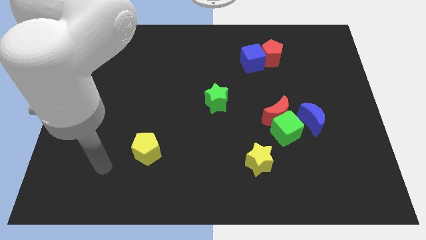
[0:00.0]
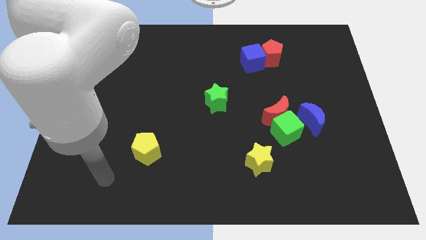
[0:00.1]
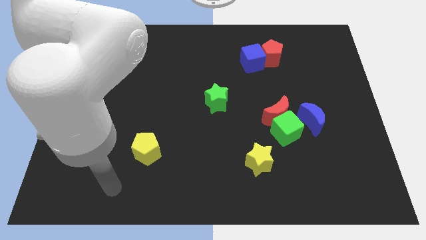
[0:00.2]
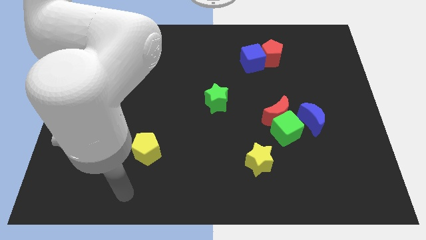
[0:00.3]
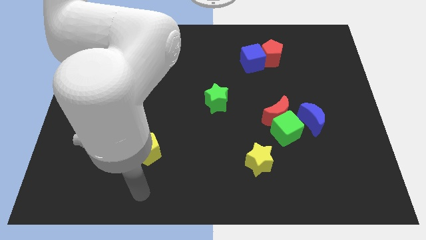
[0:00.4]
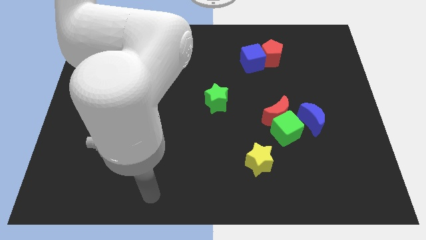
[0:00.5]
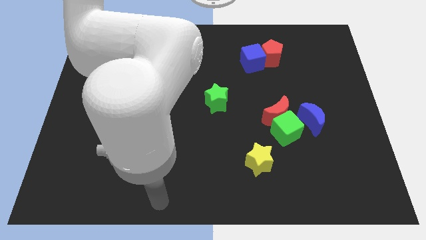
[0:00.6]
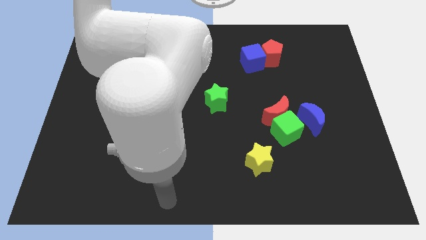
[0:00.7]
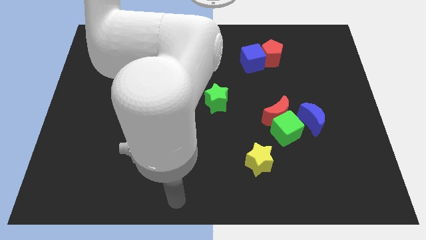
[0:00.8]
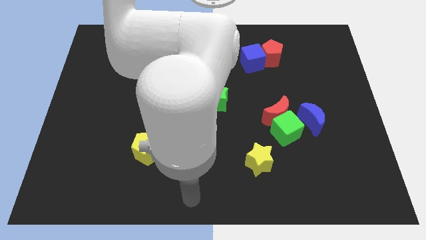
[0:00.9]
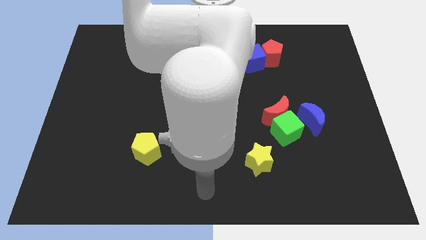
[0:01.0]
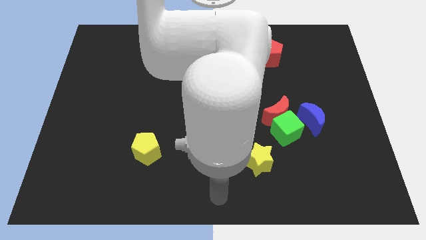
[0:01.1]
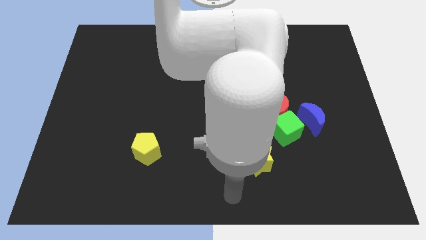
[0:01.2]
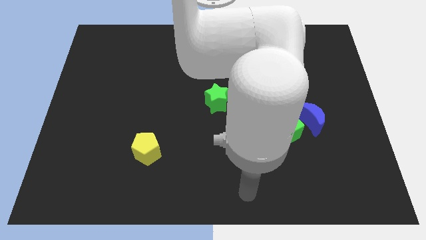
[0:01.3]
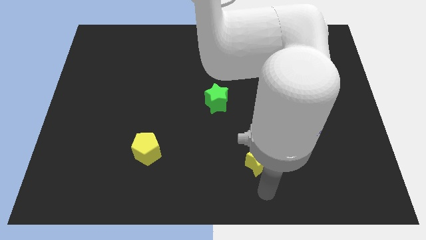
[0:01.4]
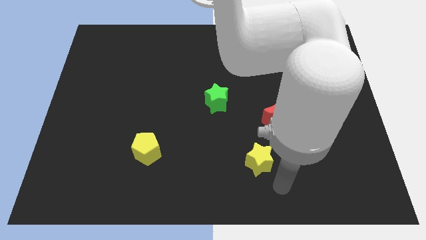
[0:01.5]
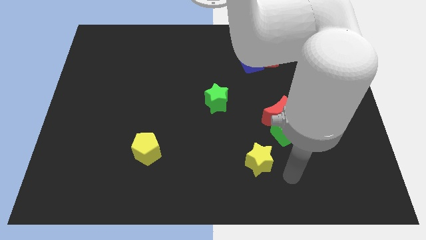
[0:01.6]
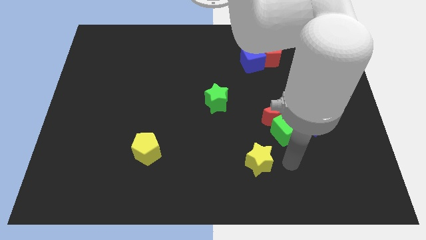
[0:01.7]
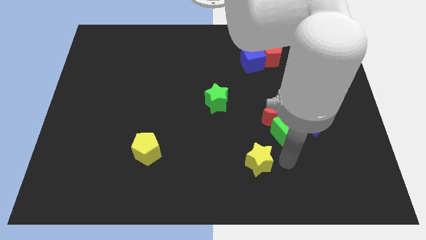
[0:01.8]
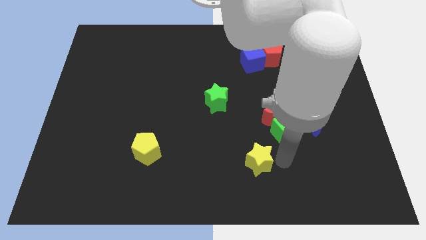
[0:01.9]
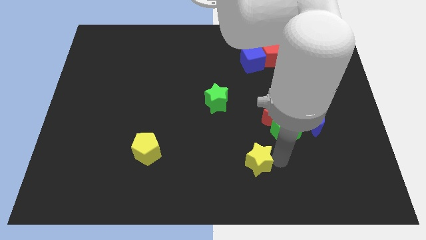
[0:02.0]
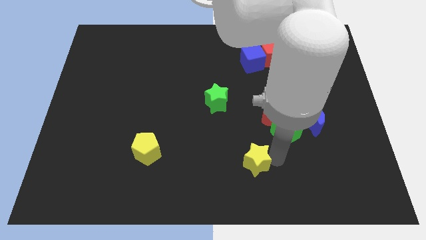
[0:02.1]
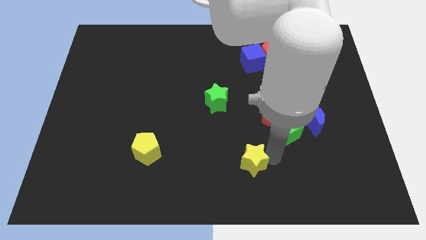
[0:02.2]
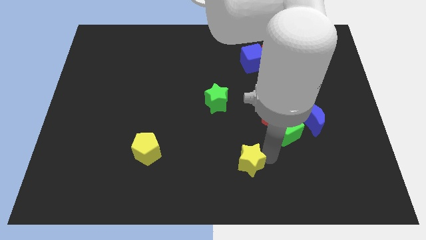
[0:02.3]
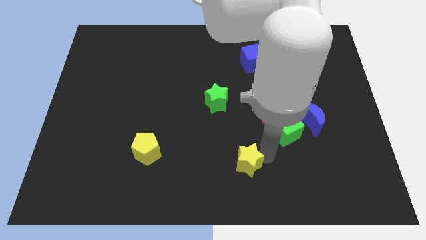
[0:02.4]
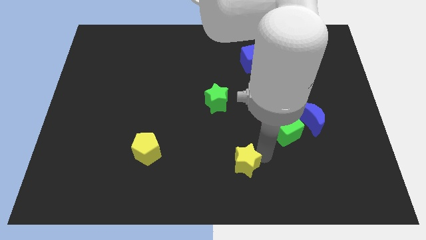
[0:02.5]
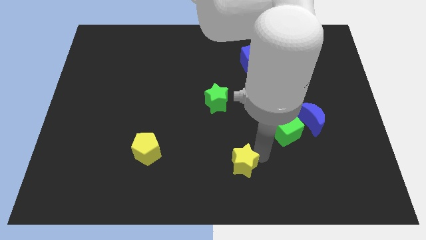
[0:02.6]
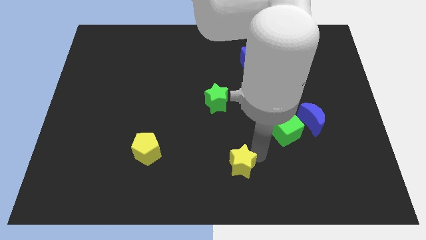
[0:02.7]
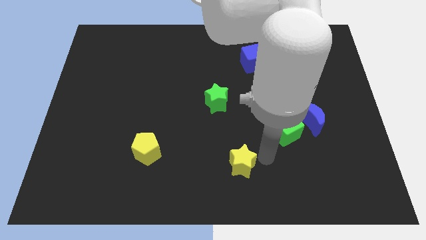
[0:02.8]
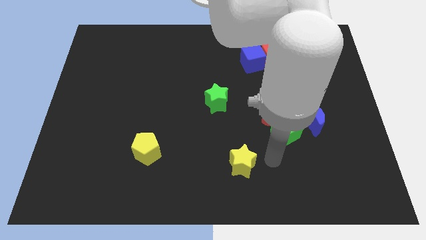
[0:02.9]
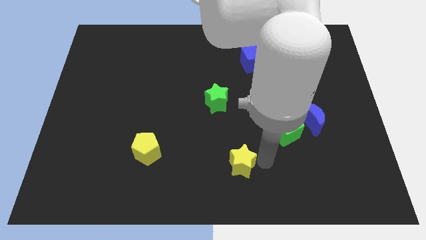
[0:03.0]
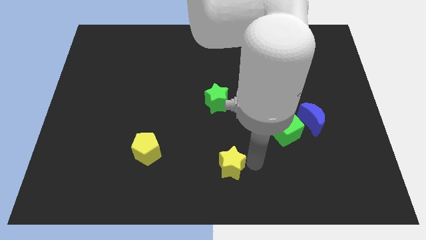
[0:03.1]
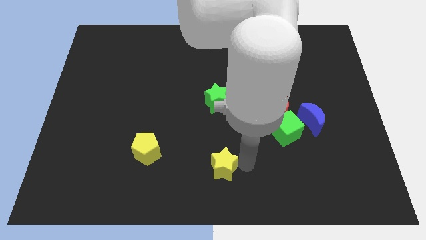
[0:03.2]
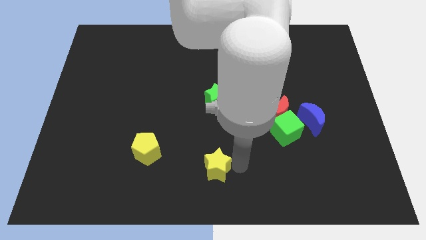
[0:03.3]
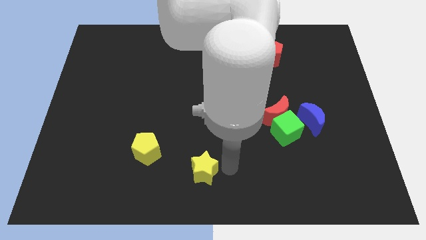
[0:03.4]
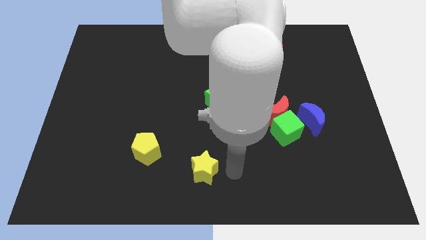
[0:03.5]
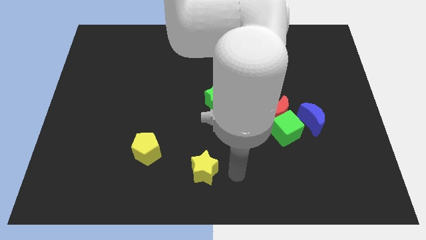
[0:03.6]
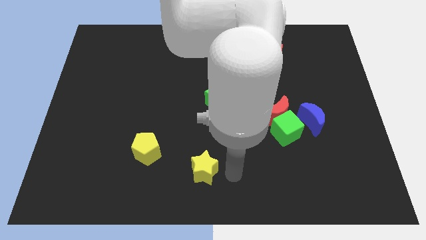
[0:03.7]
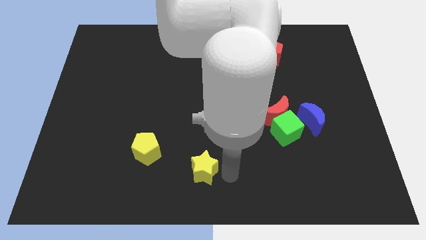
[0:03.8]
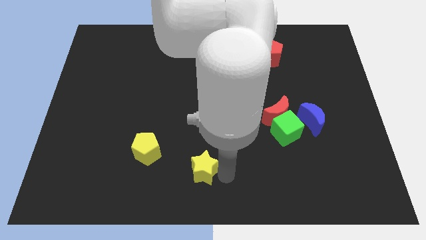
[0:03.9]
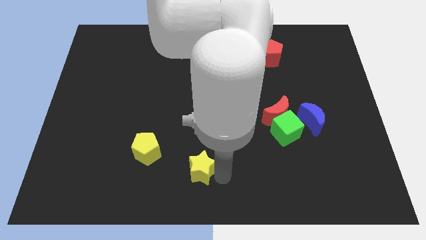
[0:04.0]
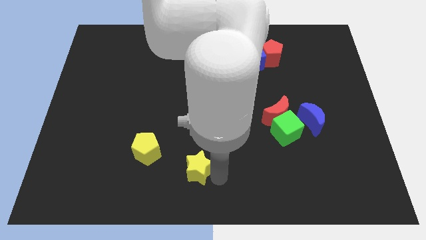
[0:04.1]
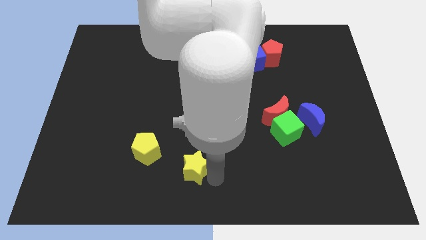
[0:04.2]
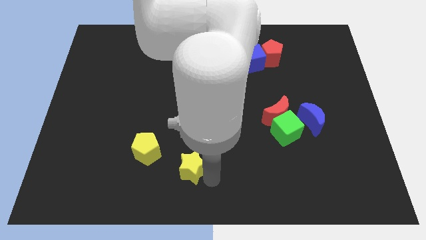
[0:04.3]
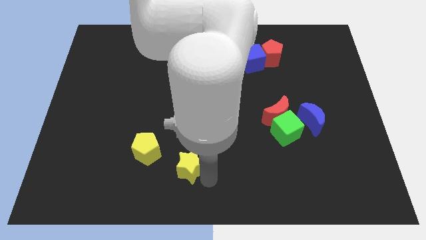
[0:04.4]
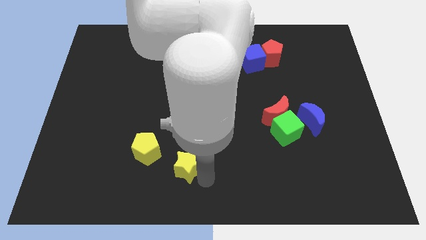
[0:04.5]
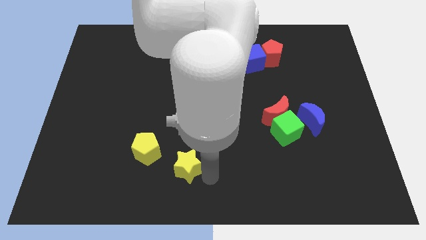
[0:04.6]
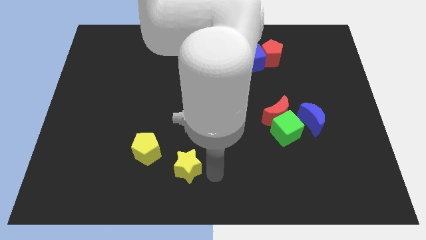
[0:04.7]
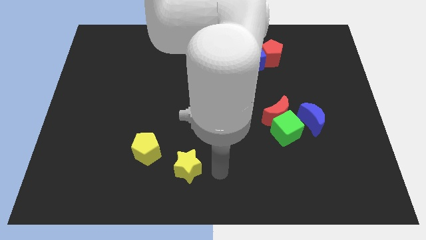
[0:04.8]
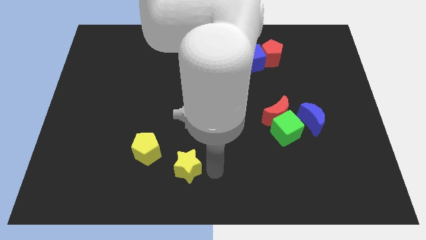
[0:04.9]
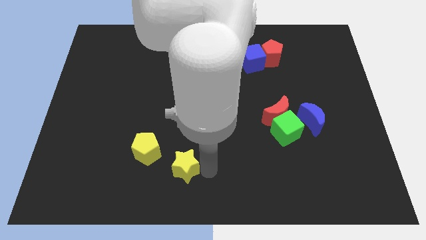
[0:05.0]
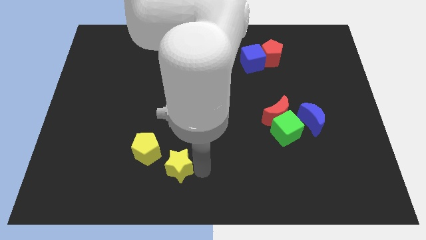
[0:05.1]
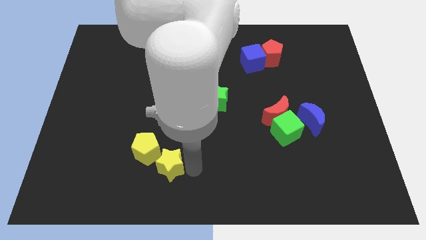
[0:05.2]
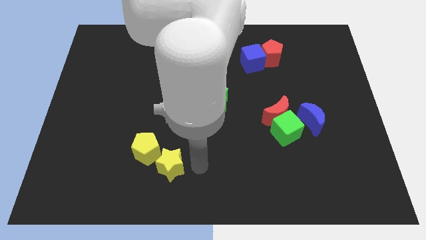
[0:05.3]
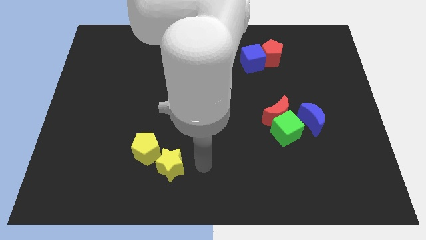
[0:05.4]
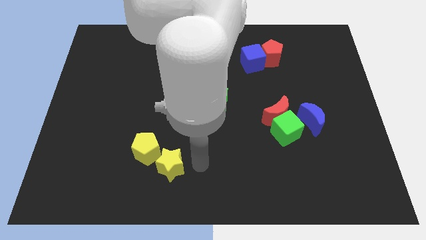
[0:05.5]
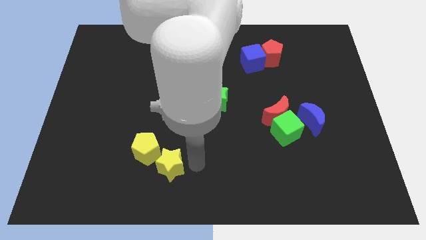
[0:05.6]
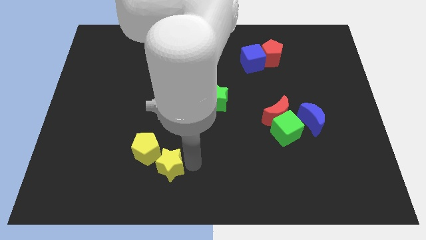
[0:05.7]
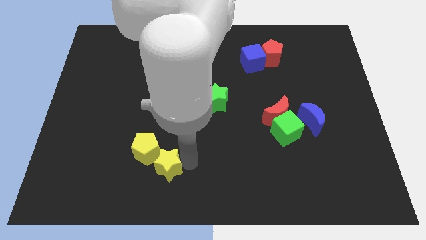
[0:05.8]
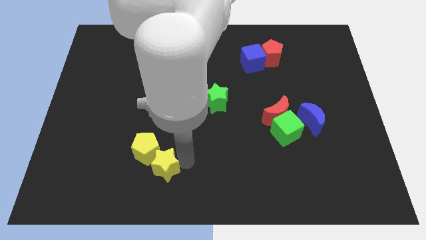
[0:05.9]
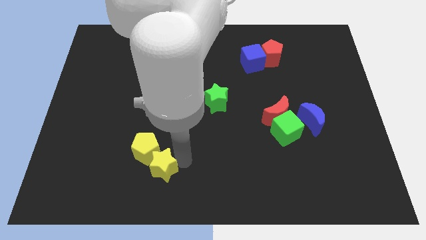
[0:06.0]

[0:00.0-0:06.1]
slide the yellow star left

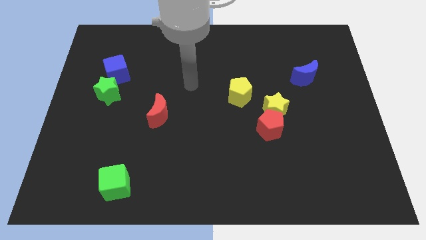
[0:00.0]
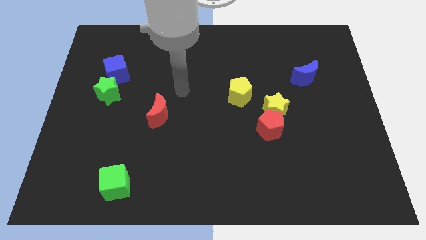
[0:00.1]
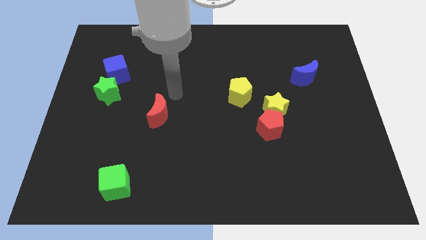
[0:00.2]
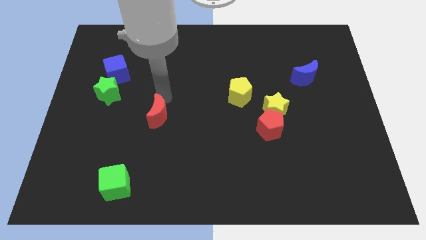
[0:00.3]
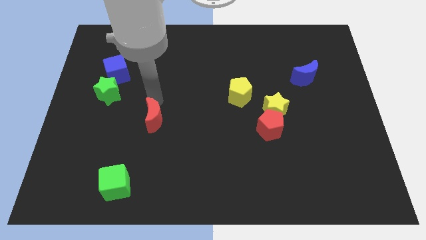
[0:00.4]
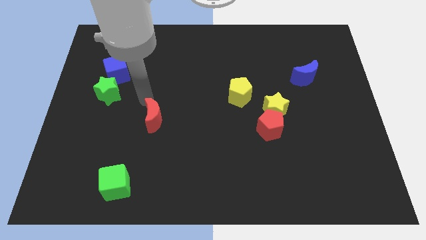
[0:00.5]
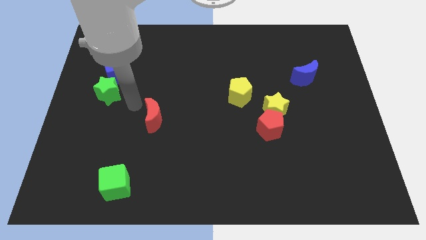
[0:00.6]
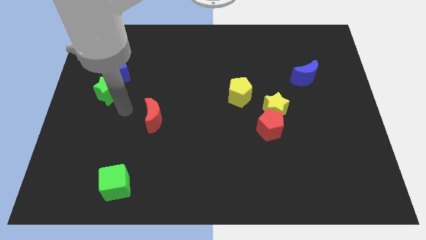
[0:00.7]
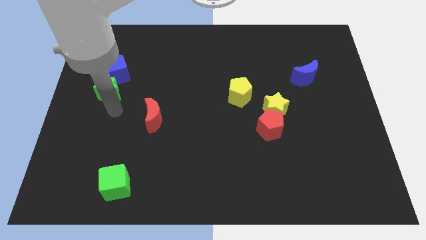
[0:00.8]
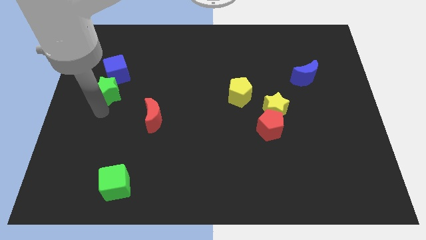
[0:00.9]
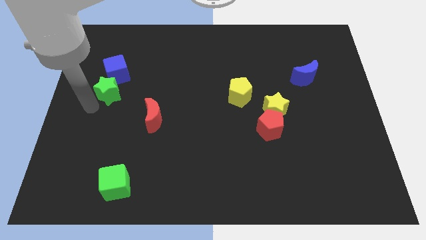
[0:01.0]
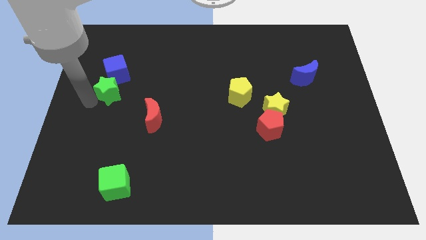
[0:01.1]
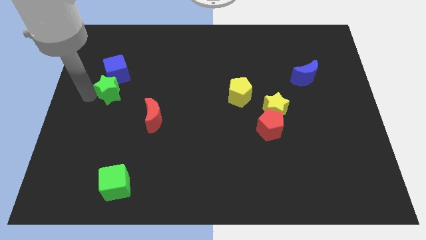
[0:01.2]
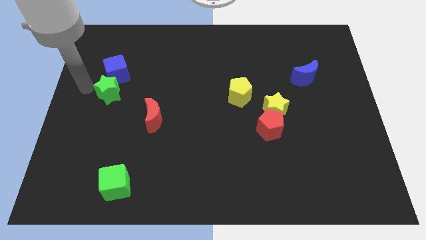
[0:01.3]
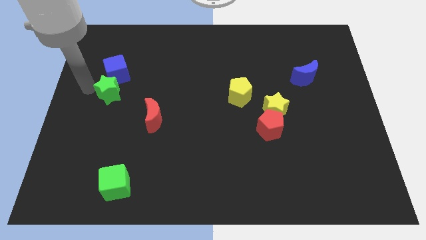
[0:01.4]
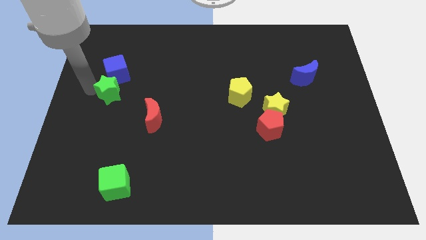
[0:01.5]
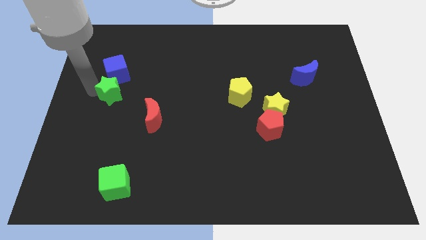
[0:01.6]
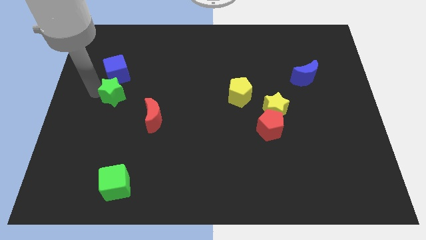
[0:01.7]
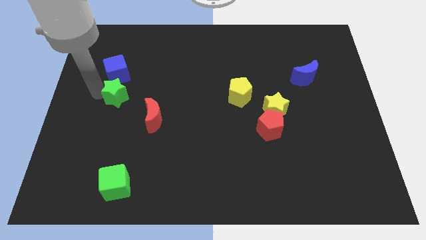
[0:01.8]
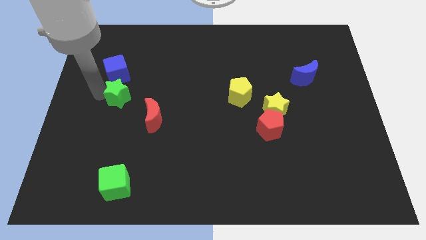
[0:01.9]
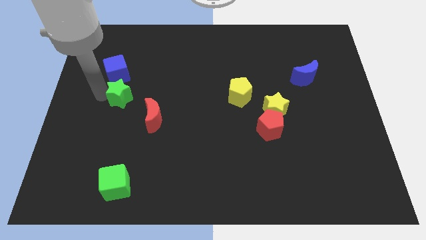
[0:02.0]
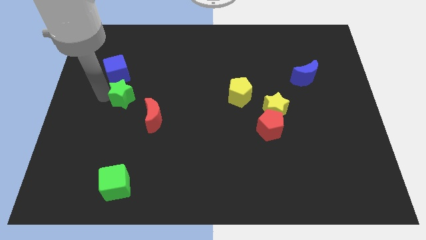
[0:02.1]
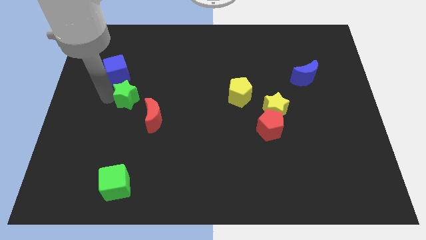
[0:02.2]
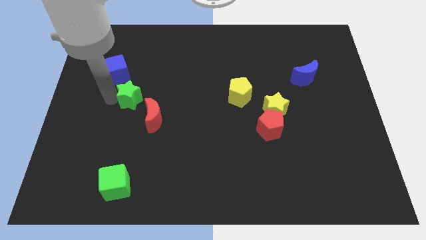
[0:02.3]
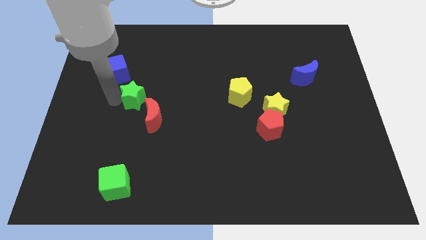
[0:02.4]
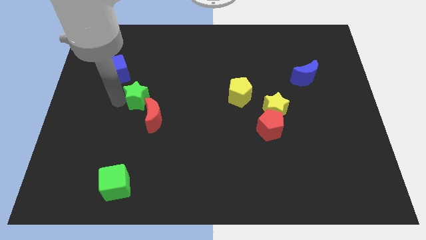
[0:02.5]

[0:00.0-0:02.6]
move the green star right a bit
